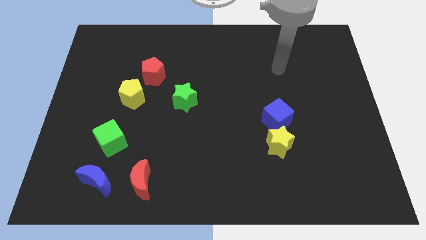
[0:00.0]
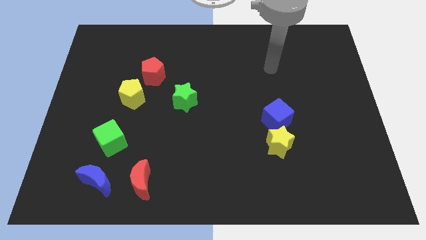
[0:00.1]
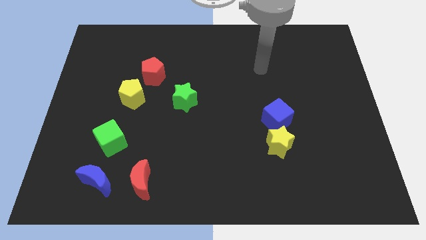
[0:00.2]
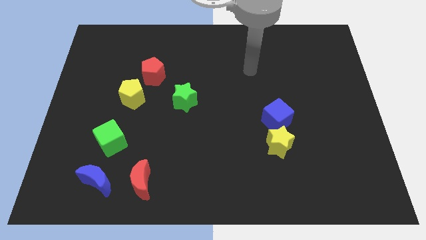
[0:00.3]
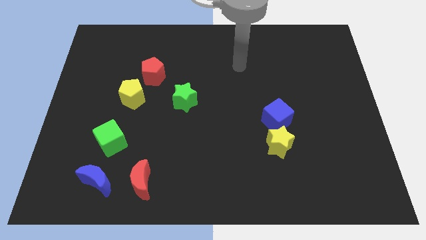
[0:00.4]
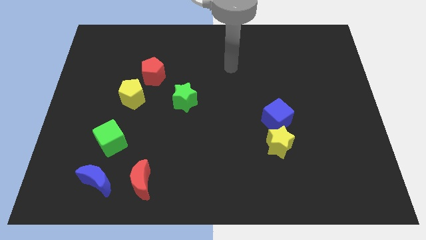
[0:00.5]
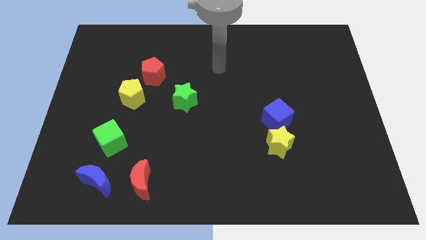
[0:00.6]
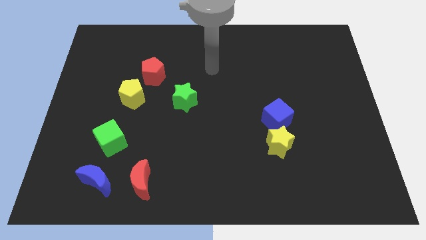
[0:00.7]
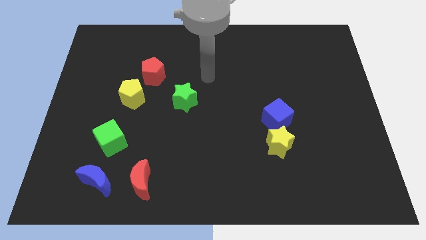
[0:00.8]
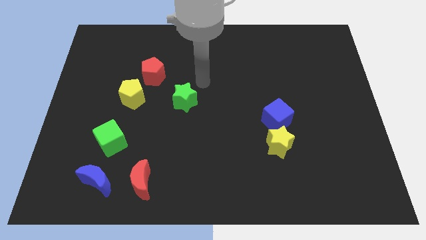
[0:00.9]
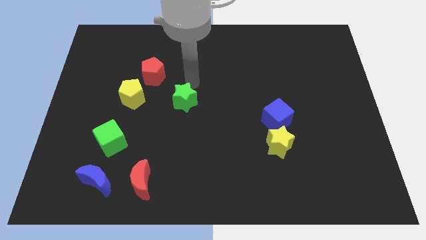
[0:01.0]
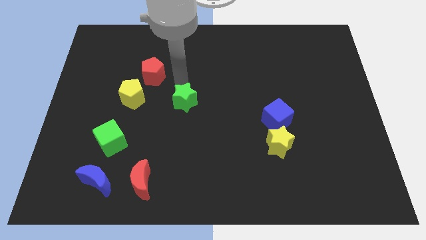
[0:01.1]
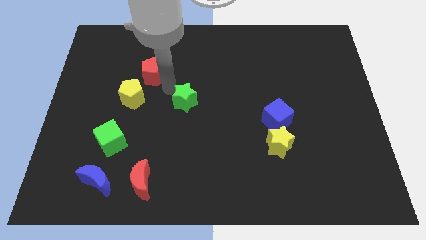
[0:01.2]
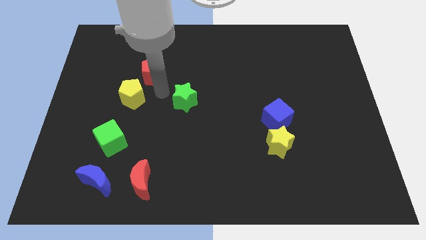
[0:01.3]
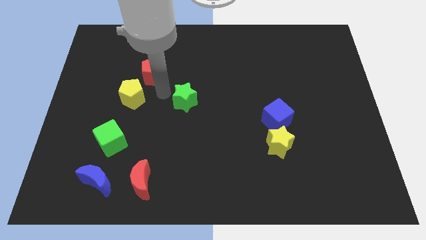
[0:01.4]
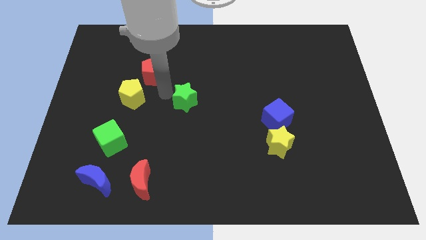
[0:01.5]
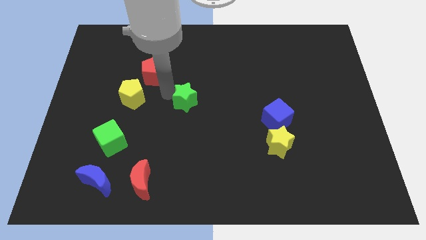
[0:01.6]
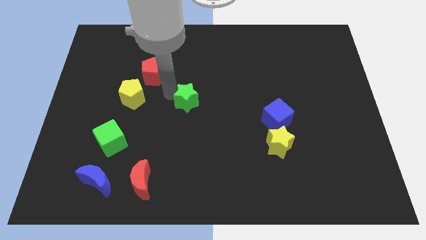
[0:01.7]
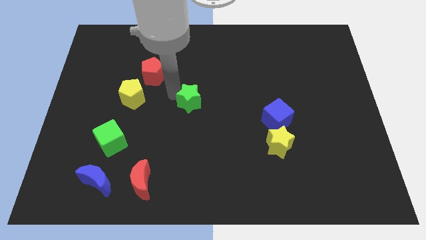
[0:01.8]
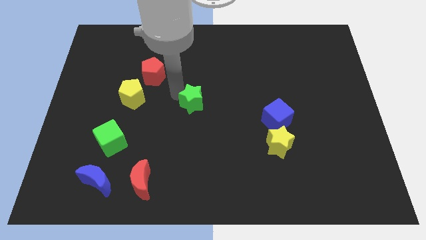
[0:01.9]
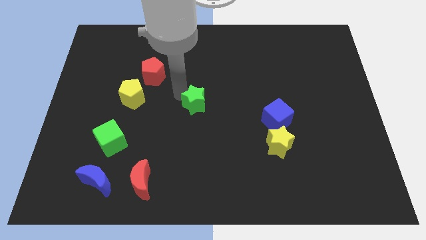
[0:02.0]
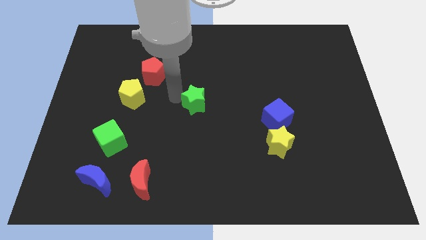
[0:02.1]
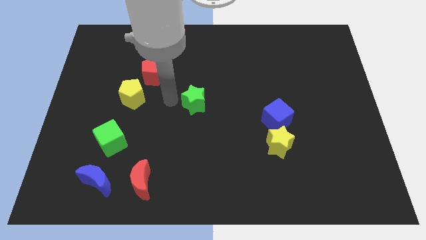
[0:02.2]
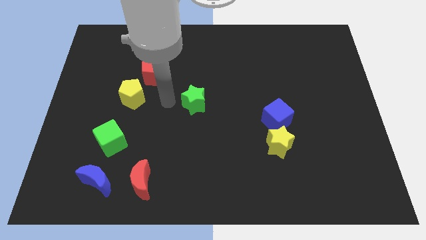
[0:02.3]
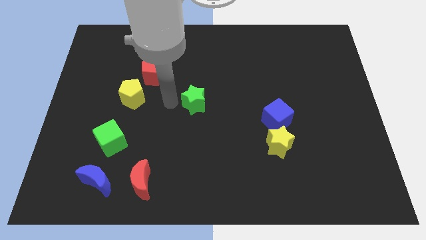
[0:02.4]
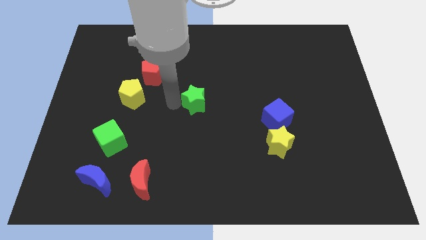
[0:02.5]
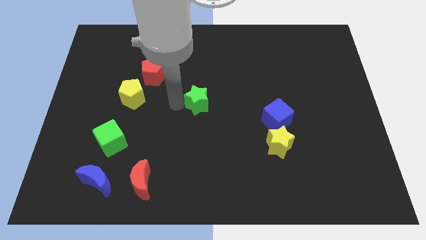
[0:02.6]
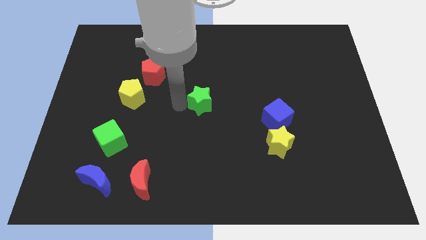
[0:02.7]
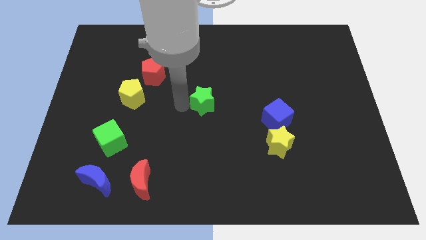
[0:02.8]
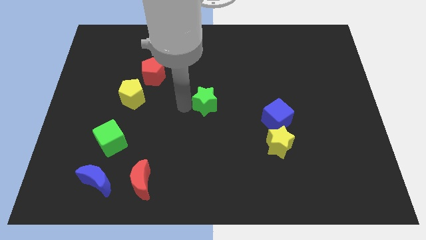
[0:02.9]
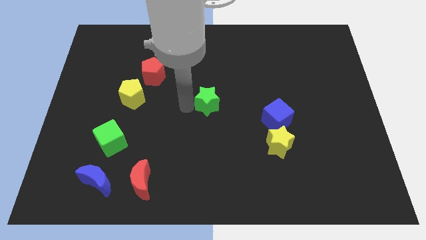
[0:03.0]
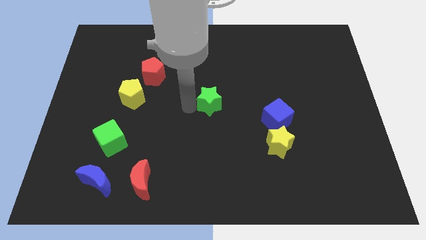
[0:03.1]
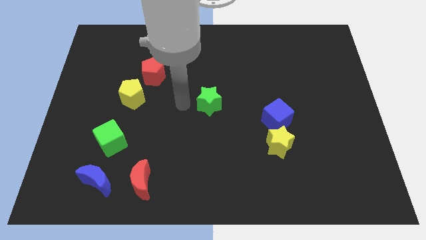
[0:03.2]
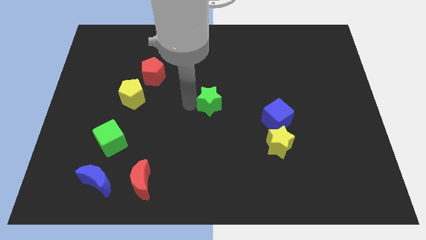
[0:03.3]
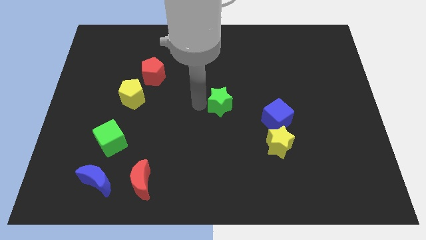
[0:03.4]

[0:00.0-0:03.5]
slightly push the green star right

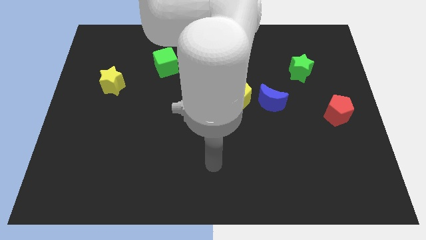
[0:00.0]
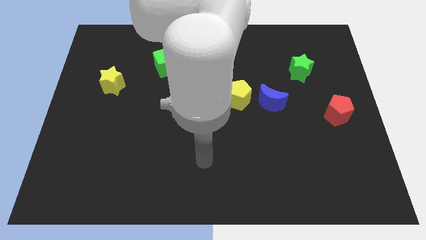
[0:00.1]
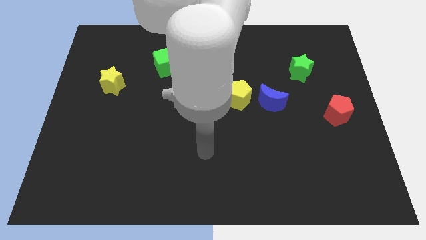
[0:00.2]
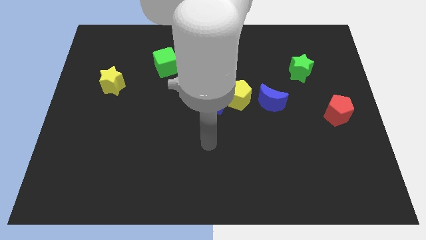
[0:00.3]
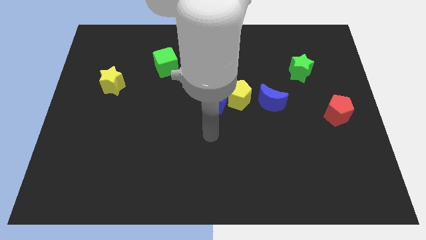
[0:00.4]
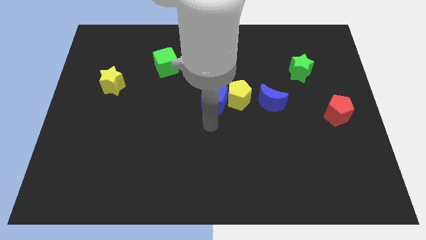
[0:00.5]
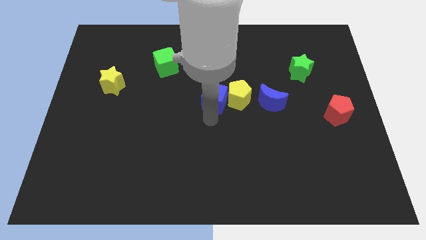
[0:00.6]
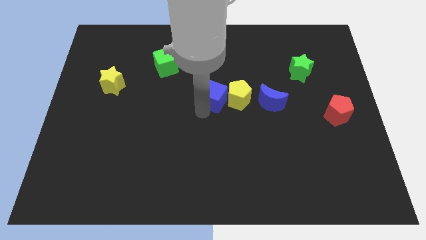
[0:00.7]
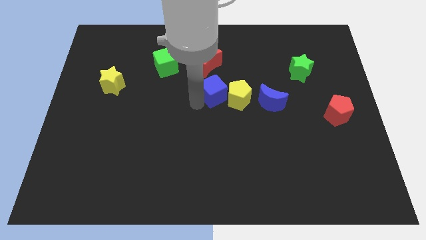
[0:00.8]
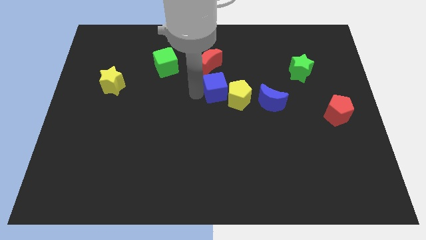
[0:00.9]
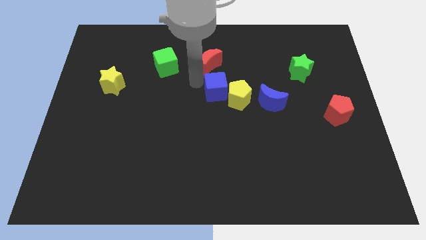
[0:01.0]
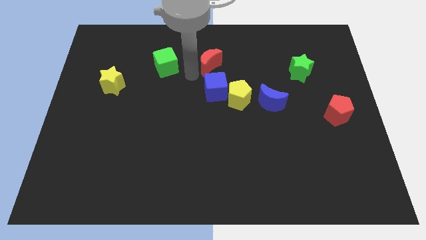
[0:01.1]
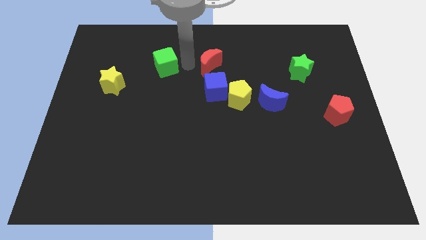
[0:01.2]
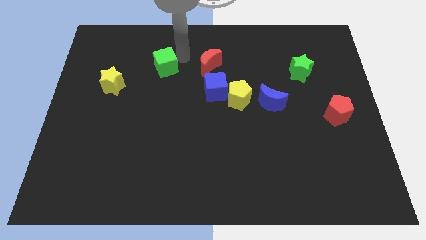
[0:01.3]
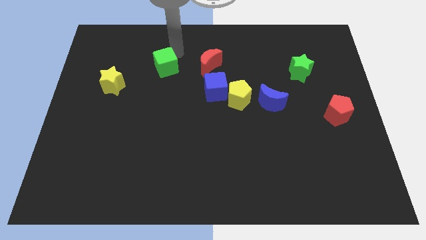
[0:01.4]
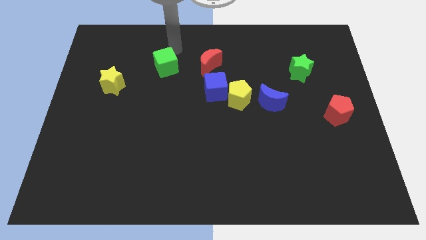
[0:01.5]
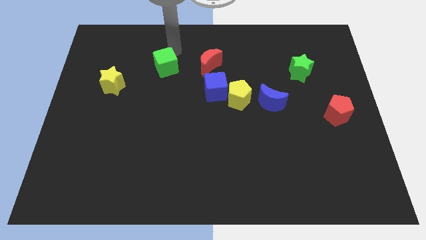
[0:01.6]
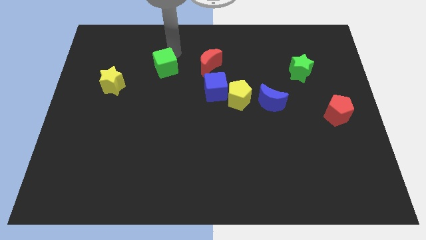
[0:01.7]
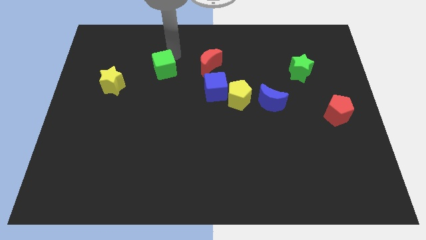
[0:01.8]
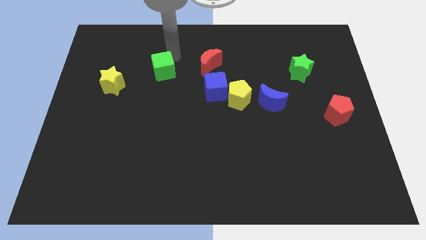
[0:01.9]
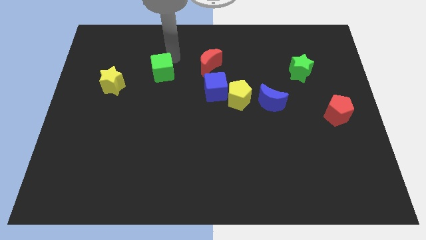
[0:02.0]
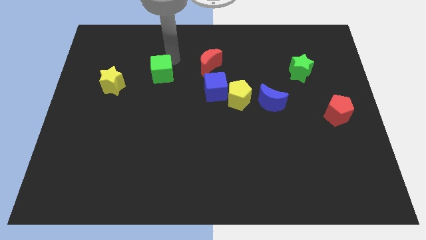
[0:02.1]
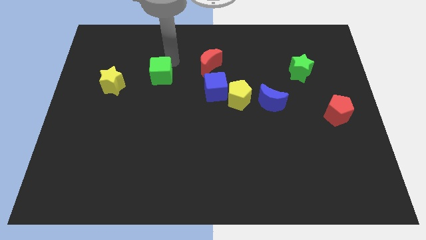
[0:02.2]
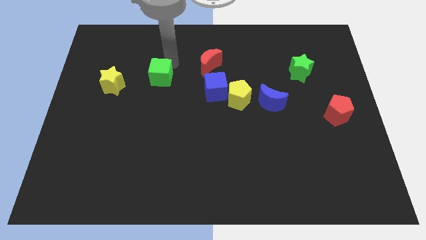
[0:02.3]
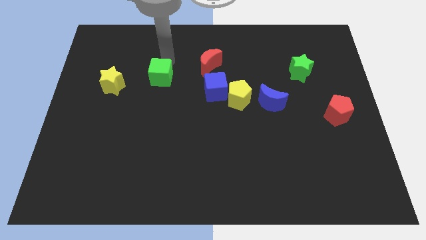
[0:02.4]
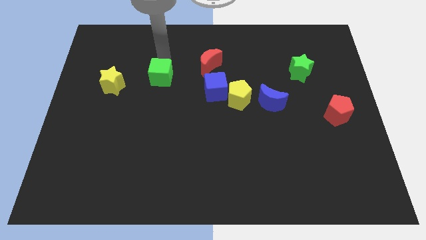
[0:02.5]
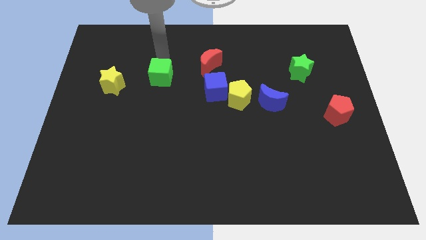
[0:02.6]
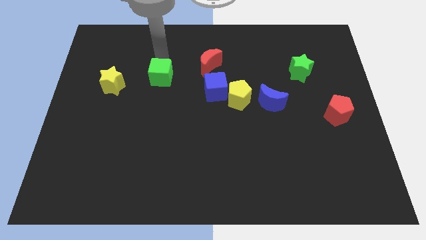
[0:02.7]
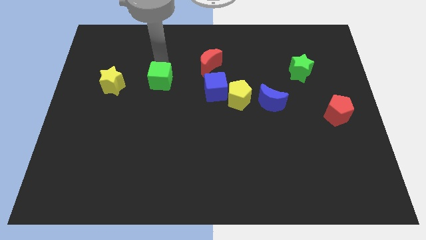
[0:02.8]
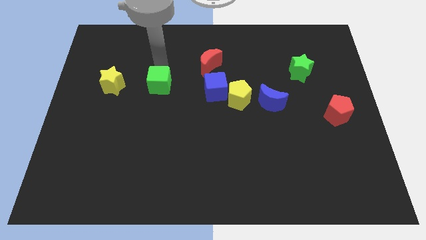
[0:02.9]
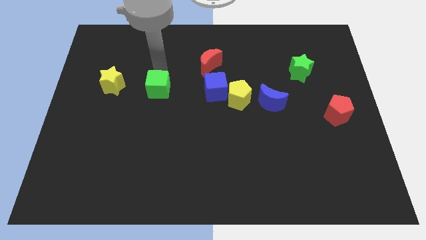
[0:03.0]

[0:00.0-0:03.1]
slide the green cube a little bit down

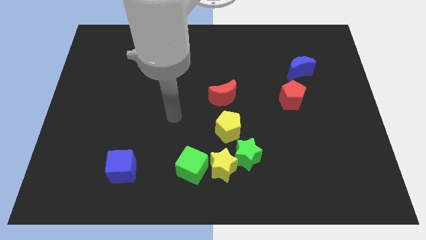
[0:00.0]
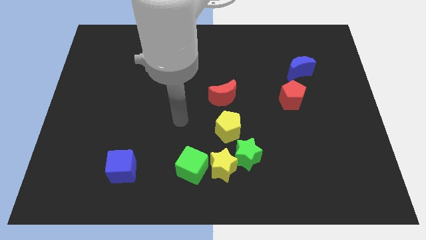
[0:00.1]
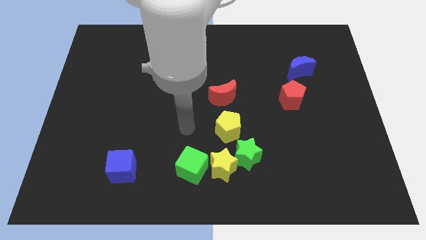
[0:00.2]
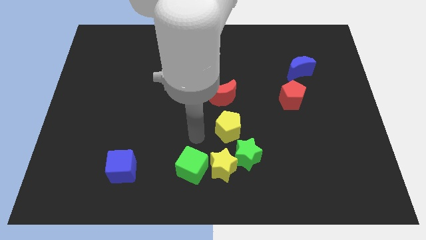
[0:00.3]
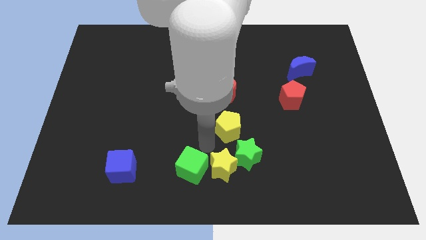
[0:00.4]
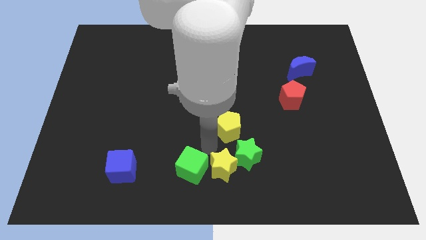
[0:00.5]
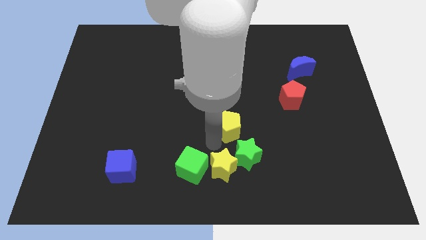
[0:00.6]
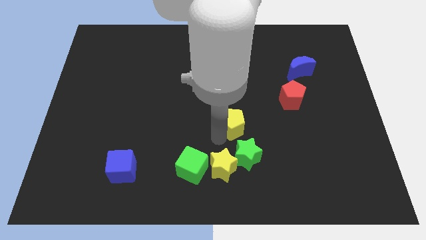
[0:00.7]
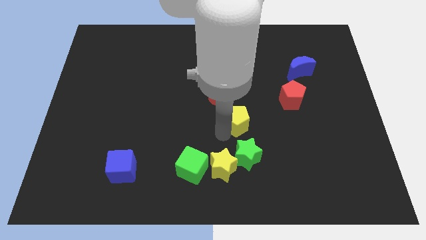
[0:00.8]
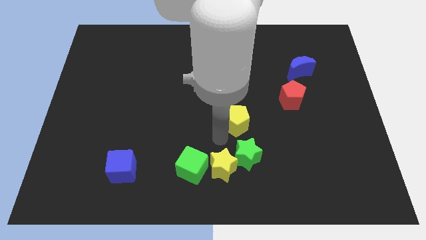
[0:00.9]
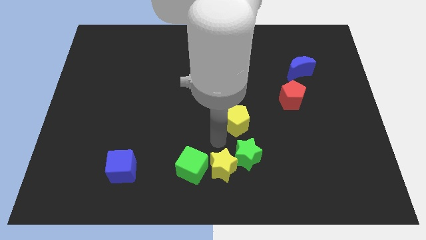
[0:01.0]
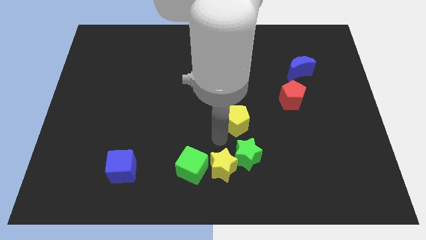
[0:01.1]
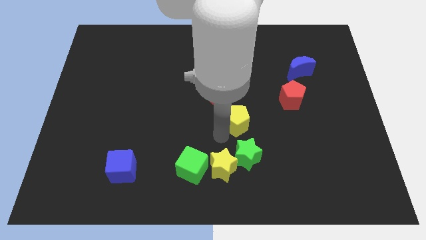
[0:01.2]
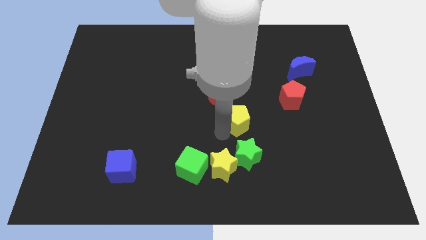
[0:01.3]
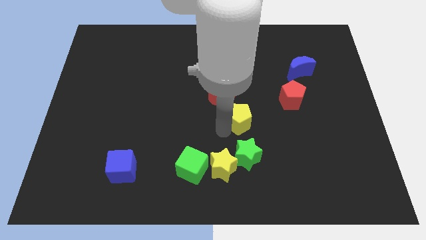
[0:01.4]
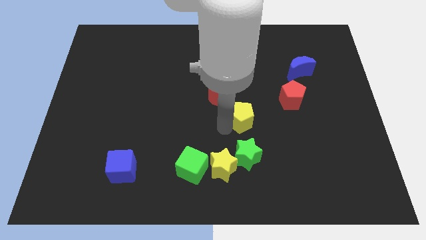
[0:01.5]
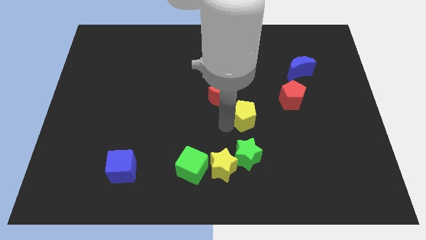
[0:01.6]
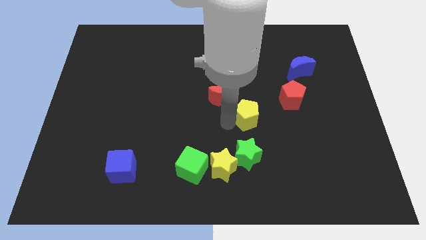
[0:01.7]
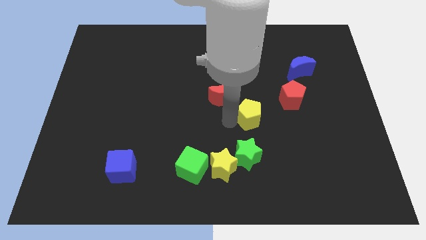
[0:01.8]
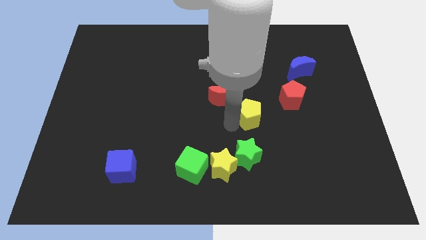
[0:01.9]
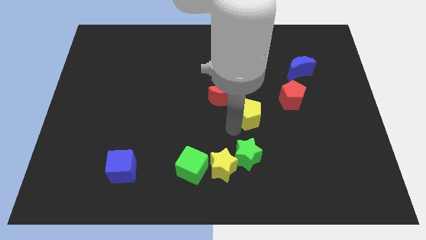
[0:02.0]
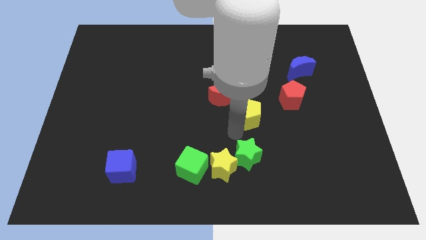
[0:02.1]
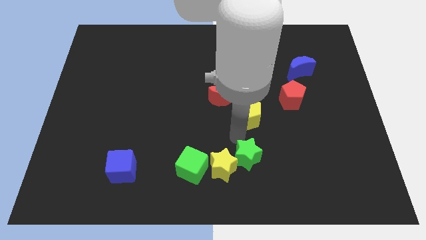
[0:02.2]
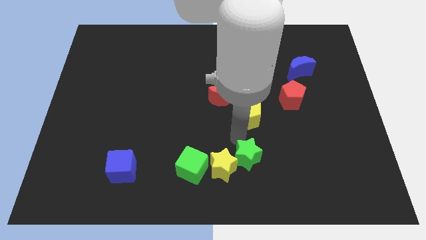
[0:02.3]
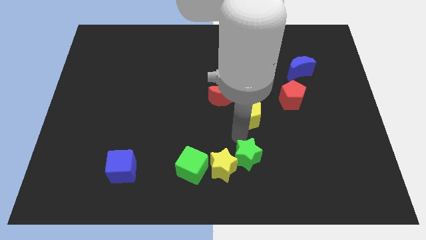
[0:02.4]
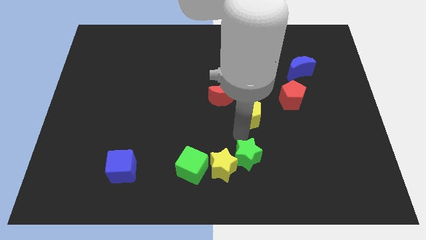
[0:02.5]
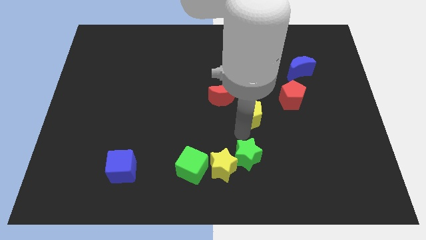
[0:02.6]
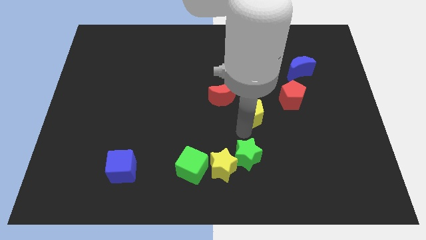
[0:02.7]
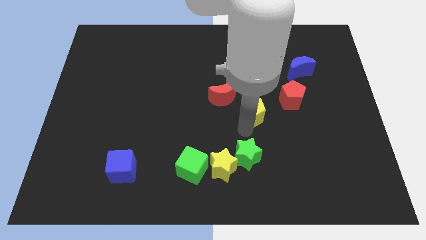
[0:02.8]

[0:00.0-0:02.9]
slide the yellow pentagon up and then right slightly
